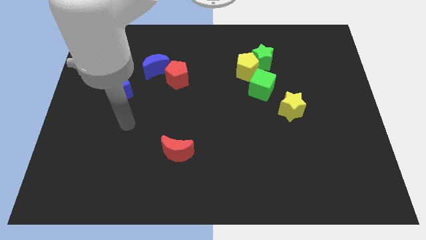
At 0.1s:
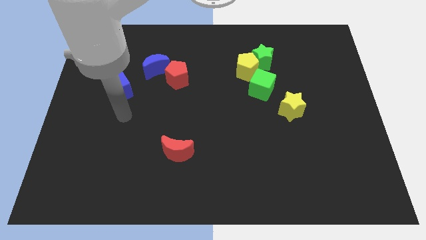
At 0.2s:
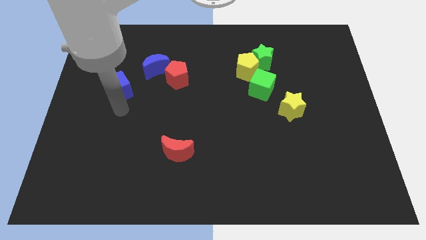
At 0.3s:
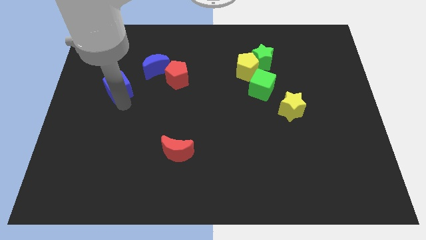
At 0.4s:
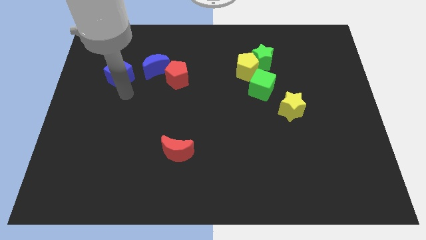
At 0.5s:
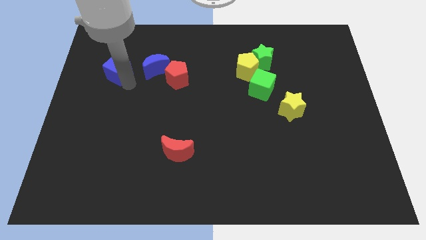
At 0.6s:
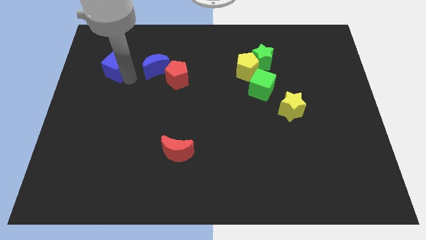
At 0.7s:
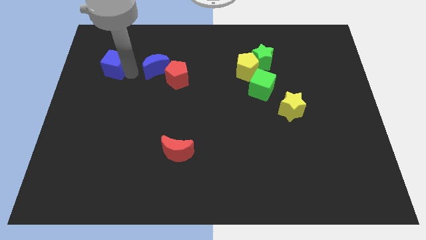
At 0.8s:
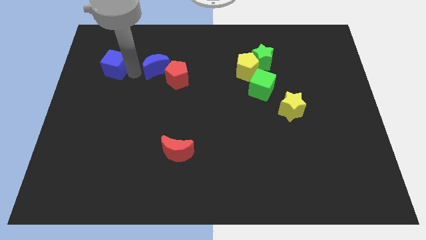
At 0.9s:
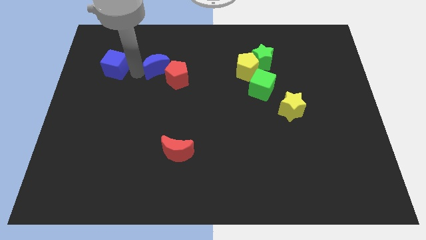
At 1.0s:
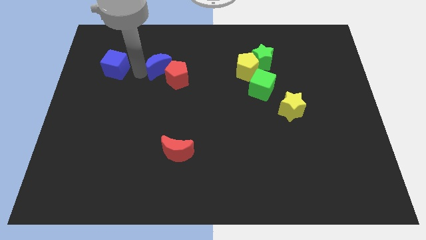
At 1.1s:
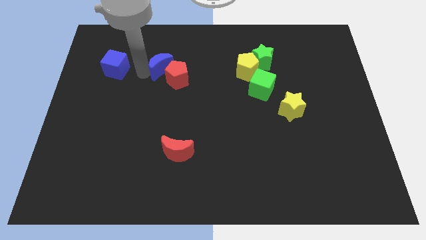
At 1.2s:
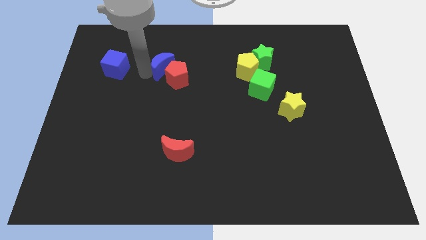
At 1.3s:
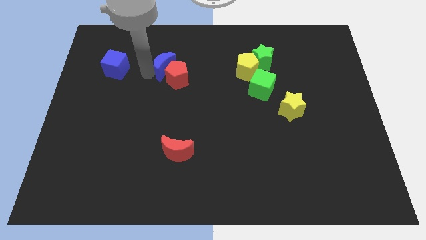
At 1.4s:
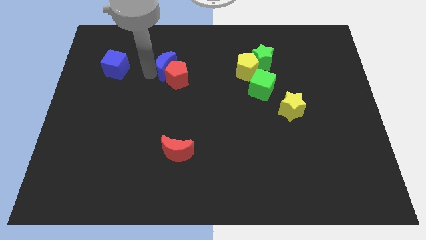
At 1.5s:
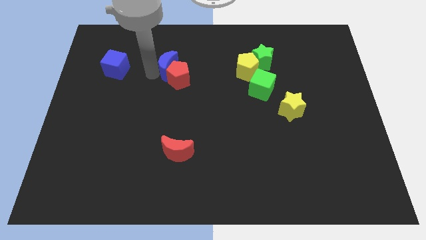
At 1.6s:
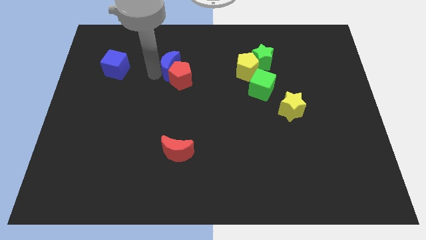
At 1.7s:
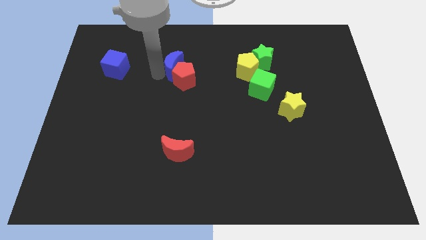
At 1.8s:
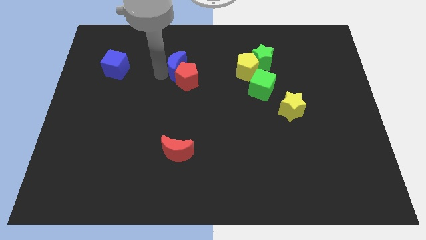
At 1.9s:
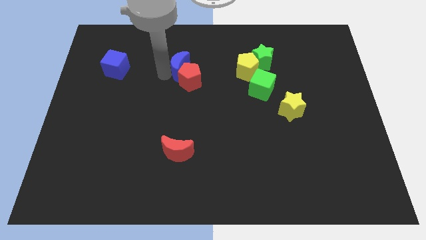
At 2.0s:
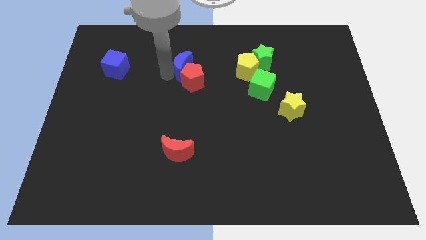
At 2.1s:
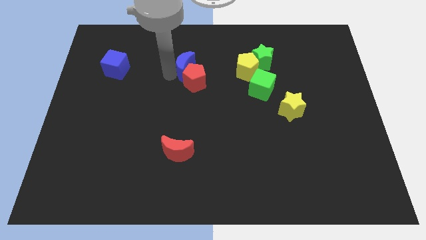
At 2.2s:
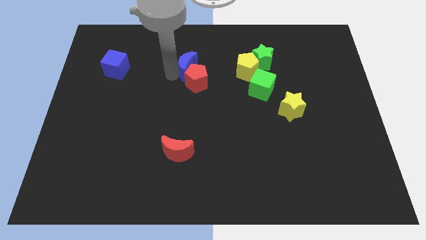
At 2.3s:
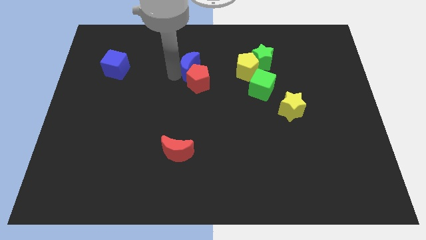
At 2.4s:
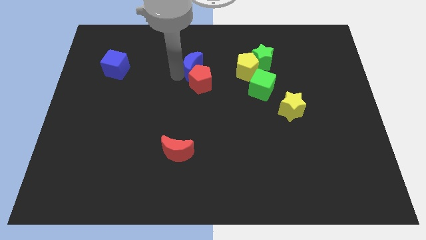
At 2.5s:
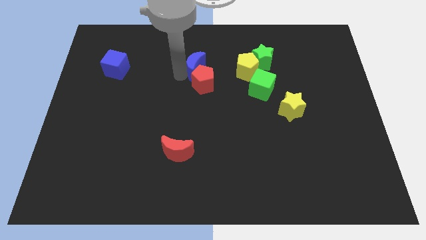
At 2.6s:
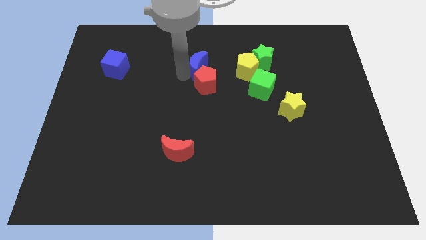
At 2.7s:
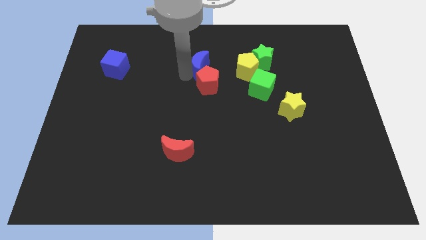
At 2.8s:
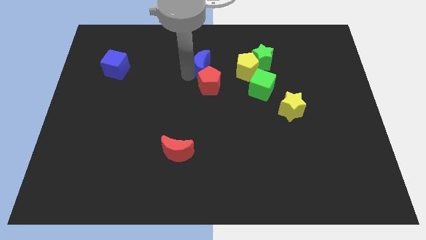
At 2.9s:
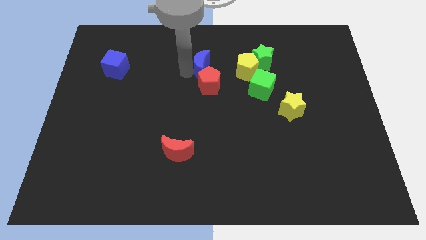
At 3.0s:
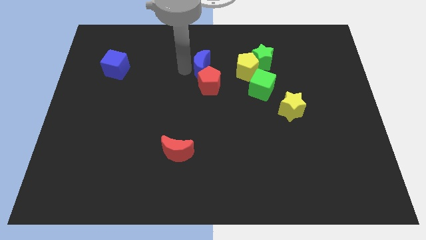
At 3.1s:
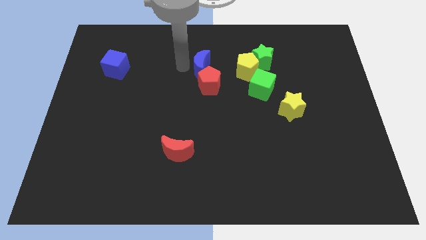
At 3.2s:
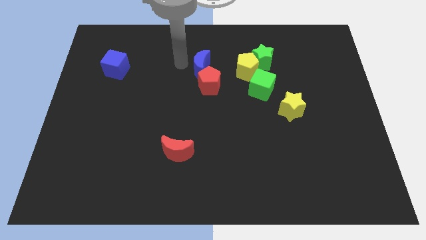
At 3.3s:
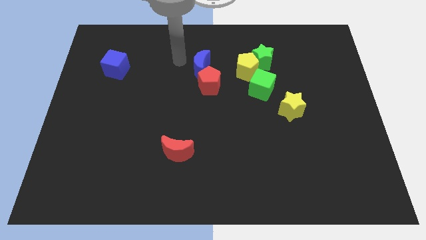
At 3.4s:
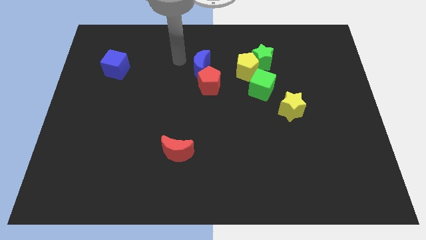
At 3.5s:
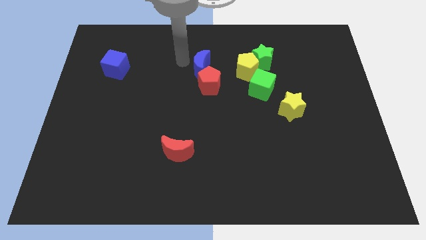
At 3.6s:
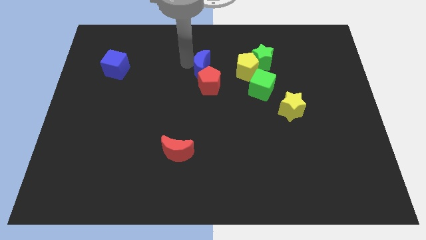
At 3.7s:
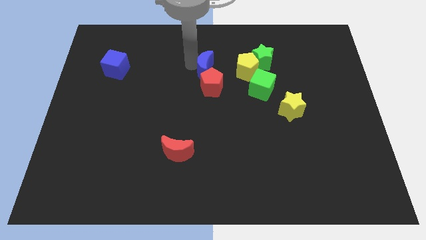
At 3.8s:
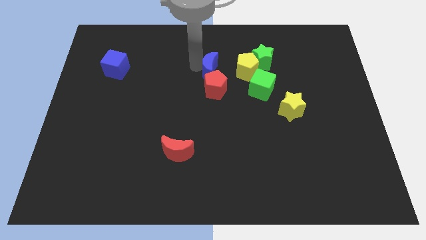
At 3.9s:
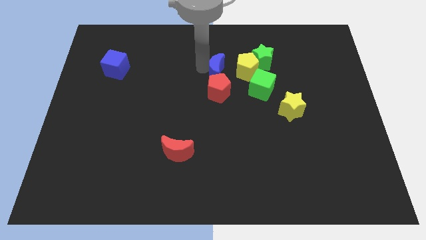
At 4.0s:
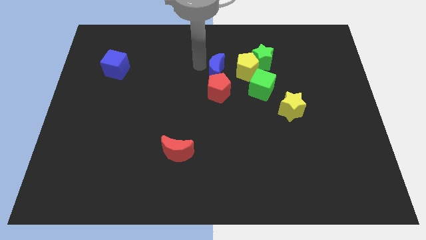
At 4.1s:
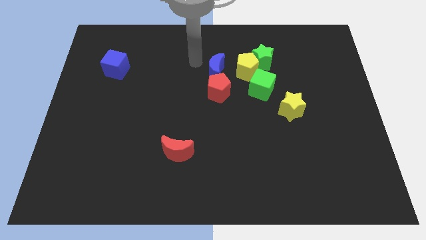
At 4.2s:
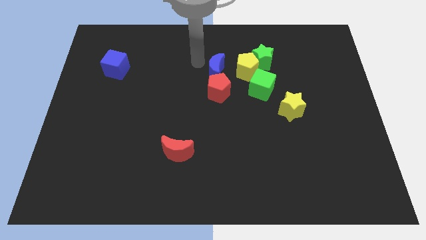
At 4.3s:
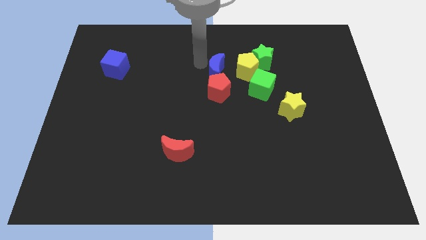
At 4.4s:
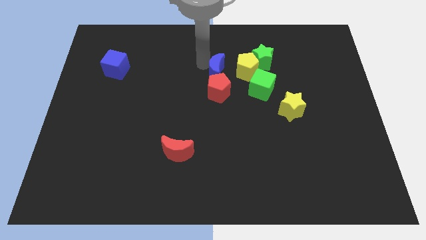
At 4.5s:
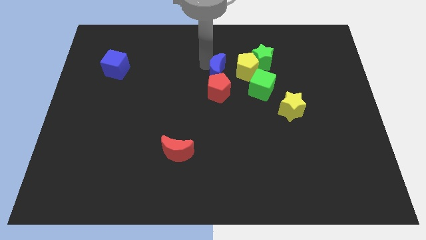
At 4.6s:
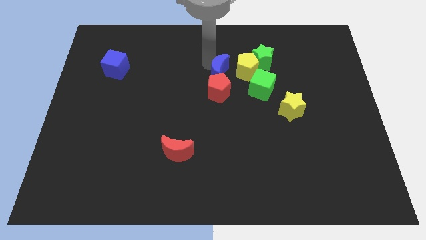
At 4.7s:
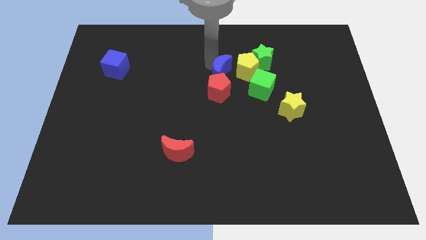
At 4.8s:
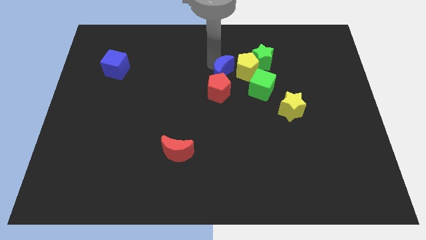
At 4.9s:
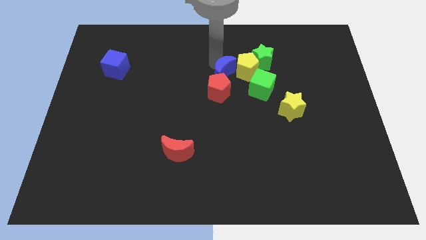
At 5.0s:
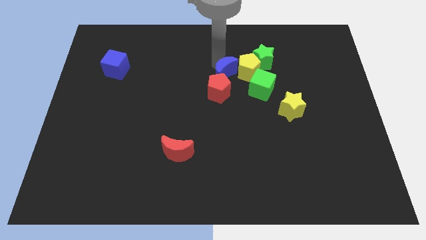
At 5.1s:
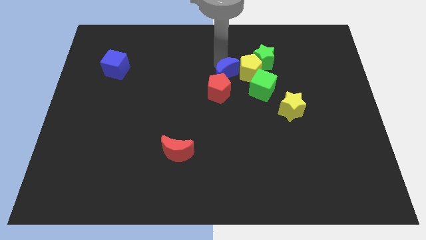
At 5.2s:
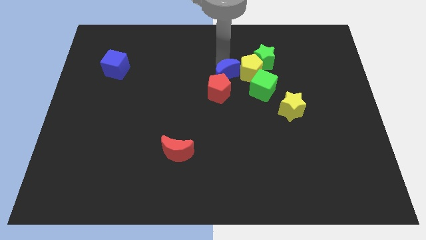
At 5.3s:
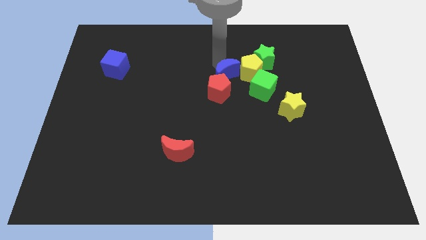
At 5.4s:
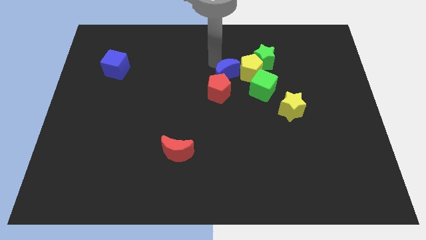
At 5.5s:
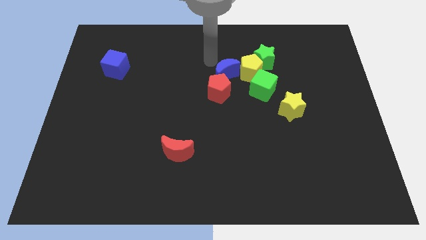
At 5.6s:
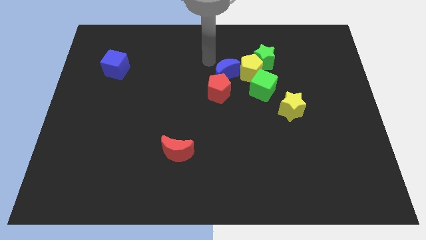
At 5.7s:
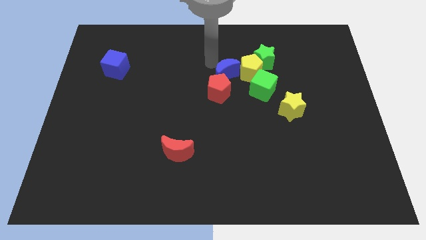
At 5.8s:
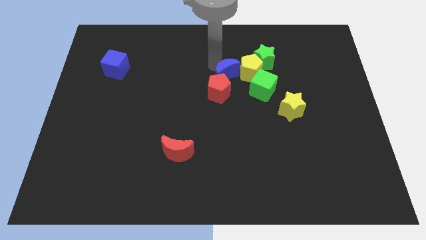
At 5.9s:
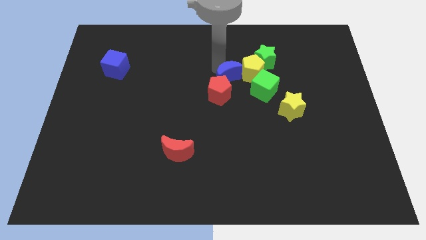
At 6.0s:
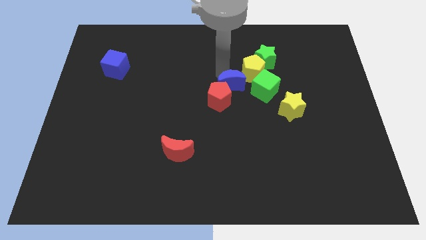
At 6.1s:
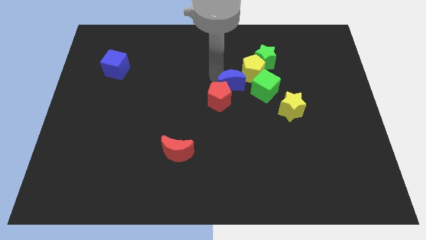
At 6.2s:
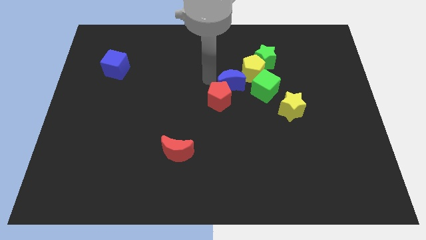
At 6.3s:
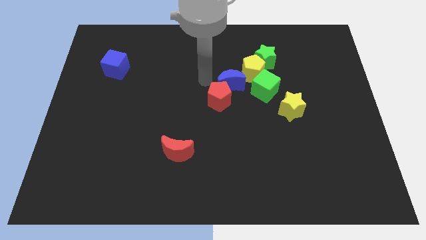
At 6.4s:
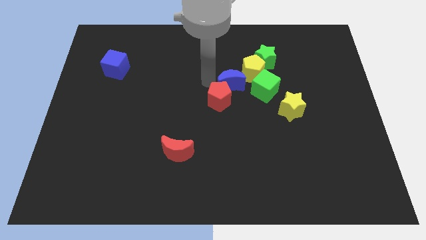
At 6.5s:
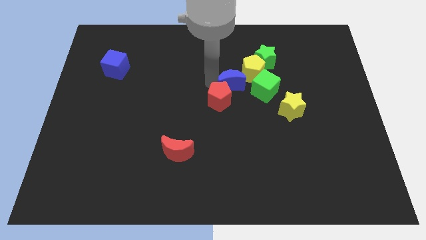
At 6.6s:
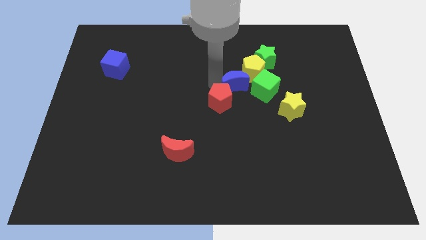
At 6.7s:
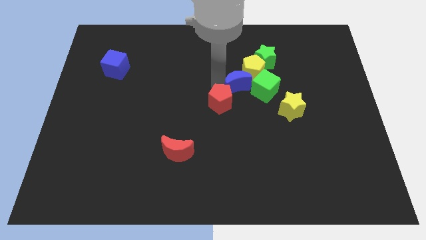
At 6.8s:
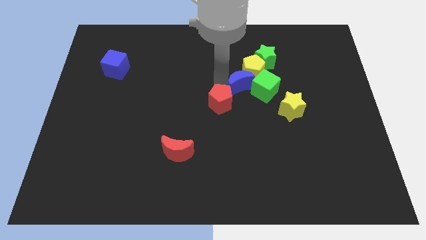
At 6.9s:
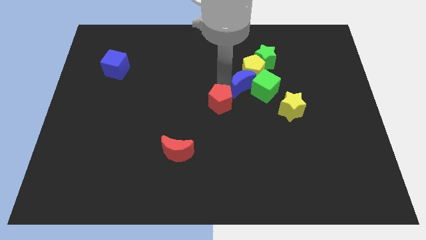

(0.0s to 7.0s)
put the blue moon to the green cube
